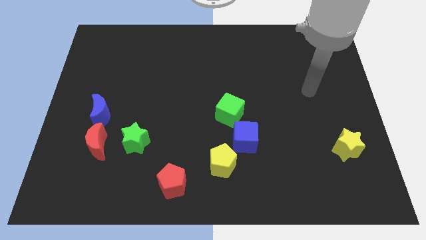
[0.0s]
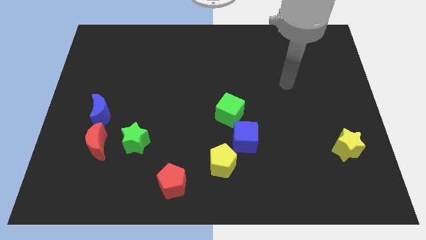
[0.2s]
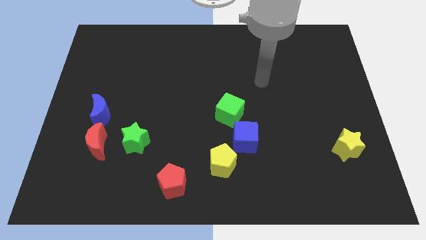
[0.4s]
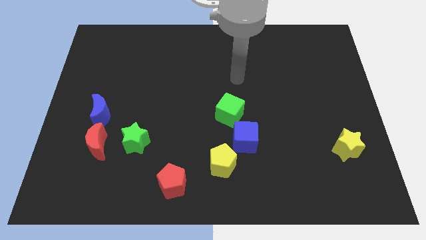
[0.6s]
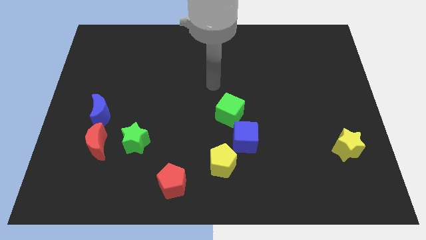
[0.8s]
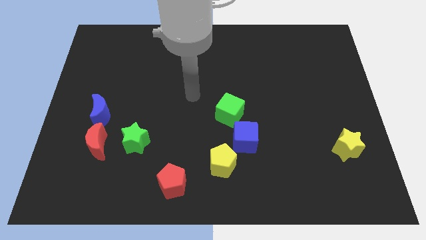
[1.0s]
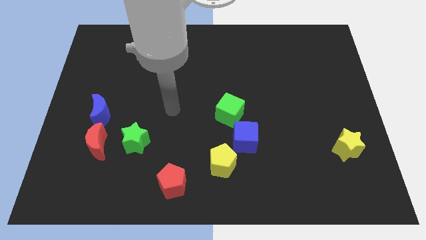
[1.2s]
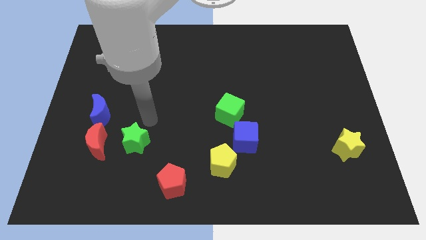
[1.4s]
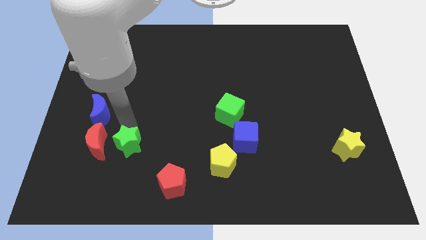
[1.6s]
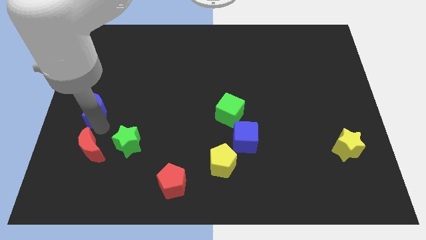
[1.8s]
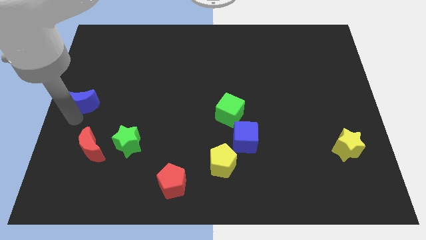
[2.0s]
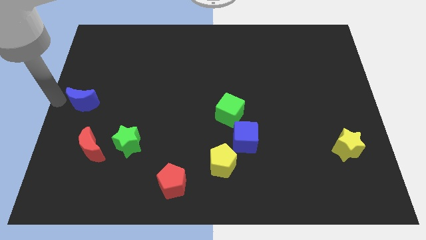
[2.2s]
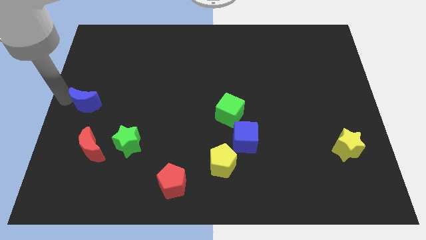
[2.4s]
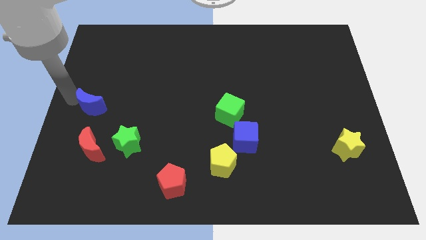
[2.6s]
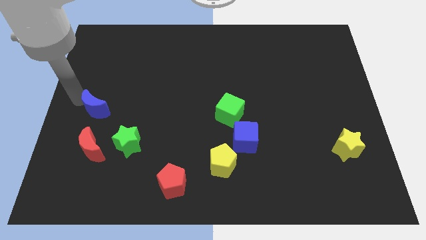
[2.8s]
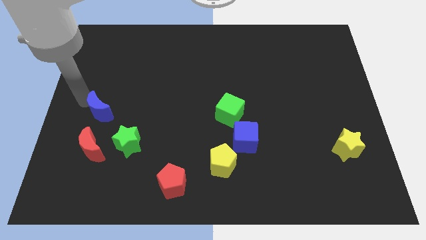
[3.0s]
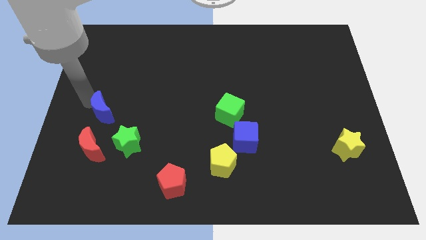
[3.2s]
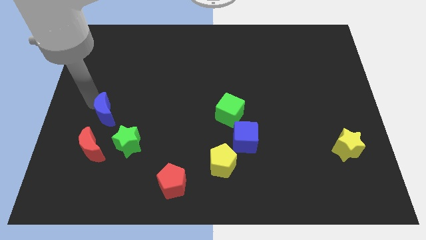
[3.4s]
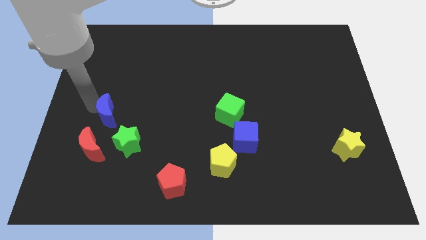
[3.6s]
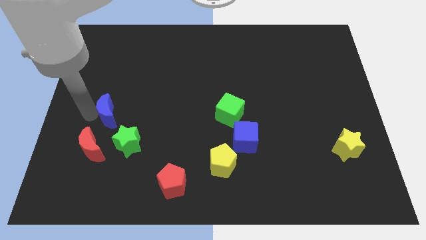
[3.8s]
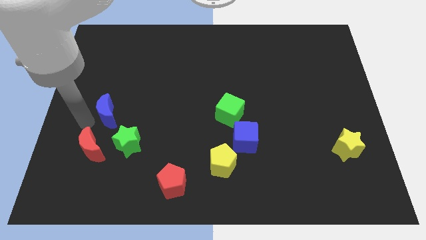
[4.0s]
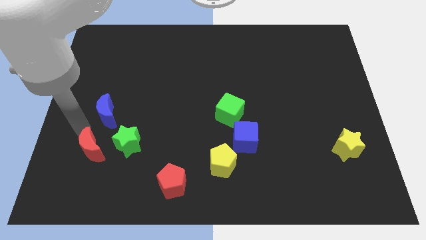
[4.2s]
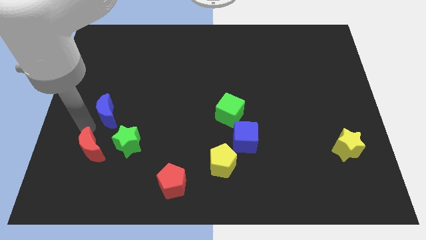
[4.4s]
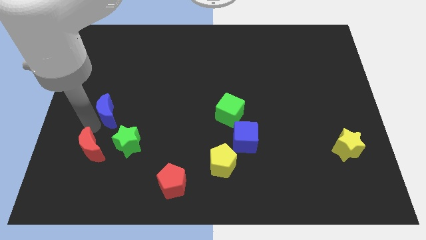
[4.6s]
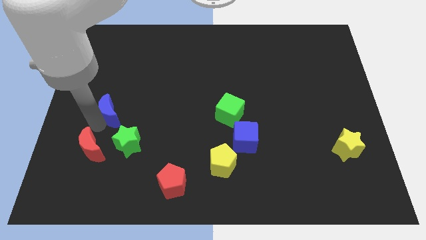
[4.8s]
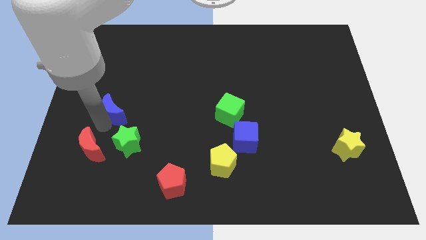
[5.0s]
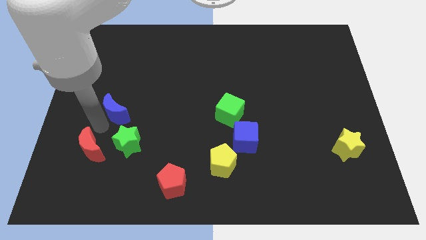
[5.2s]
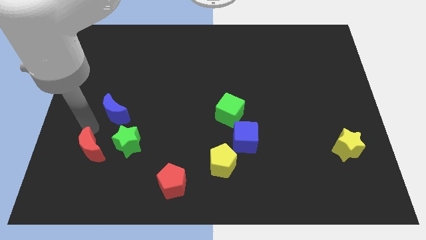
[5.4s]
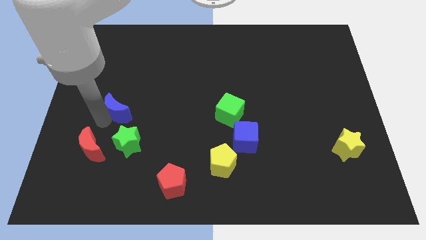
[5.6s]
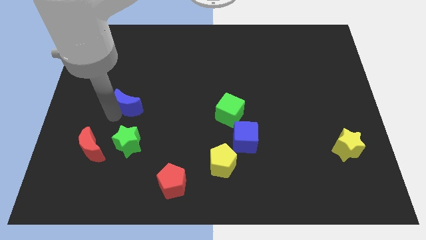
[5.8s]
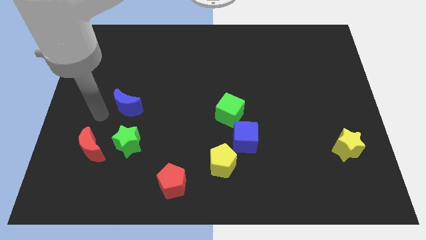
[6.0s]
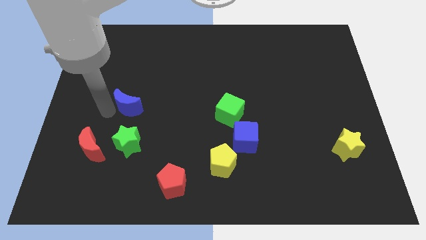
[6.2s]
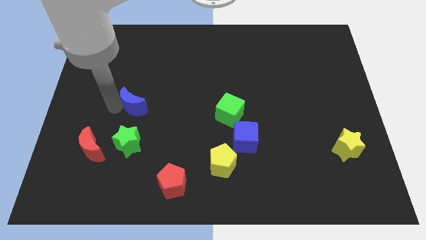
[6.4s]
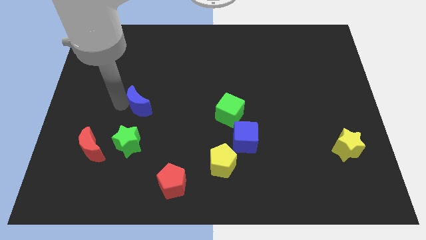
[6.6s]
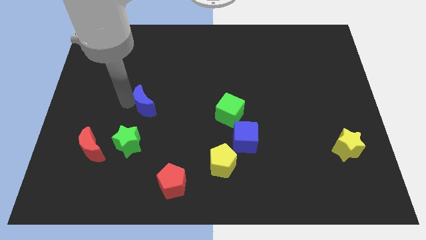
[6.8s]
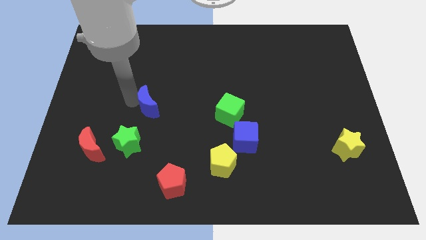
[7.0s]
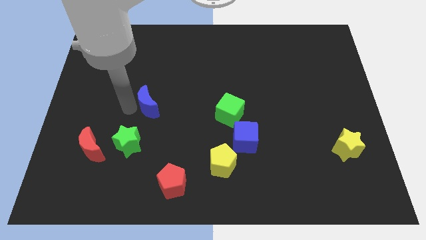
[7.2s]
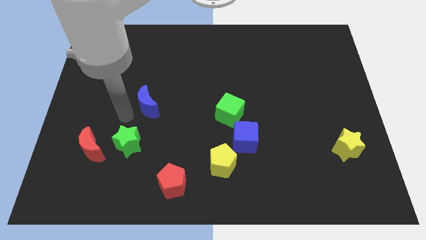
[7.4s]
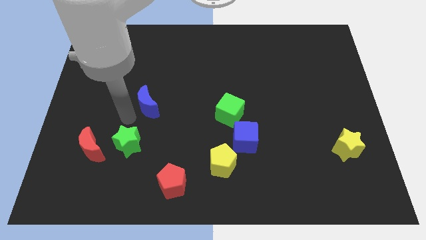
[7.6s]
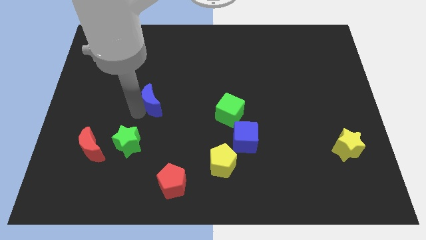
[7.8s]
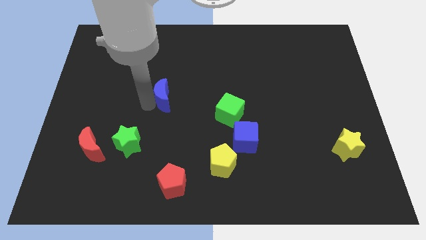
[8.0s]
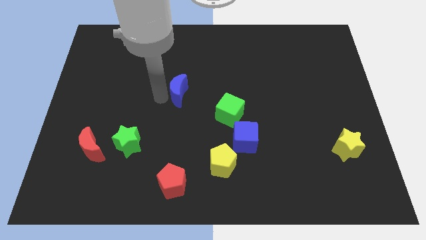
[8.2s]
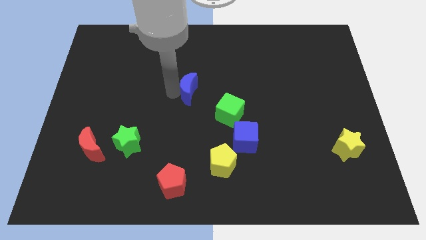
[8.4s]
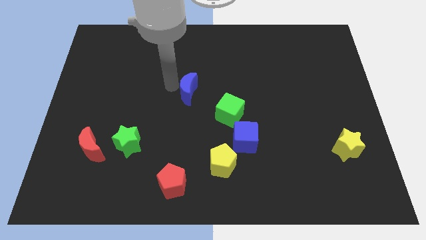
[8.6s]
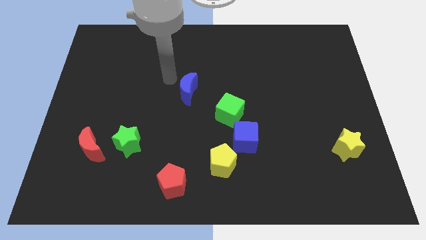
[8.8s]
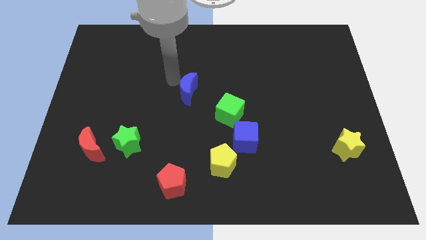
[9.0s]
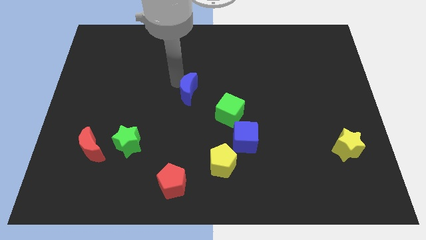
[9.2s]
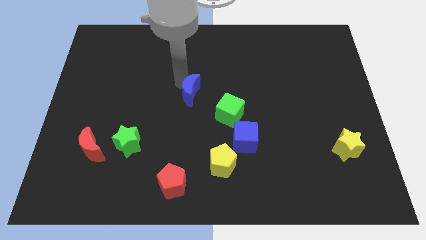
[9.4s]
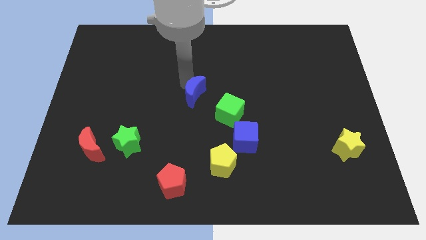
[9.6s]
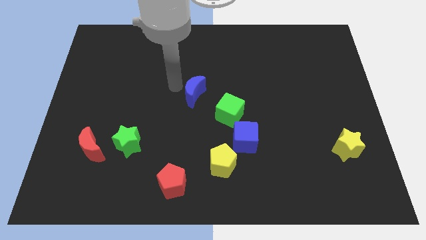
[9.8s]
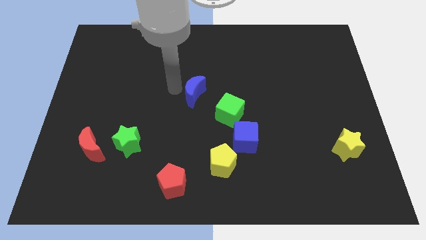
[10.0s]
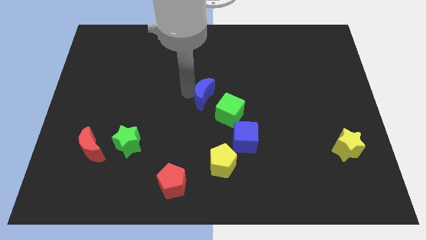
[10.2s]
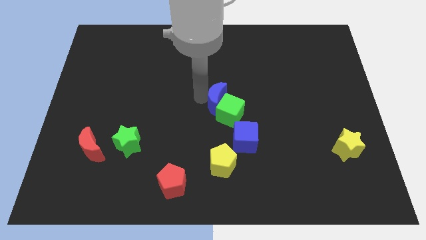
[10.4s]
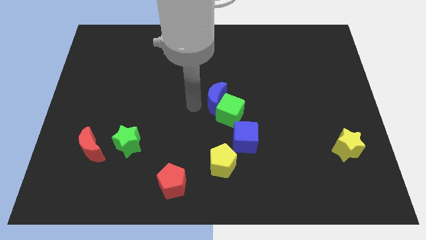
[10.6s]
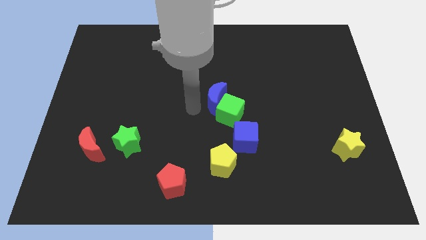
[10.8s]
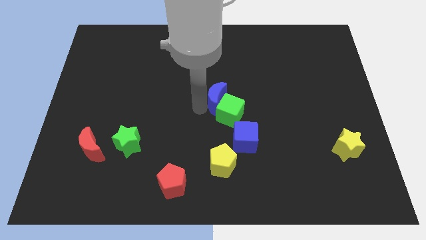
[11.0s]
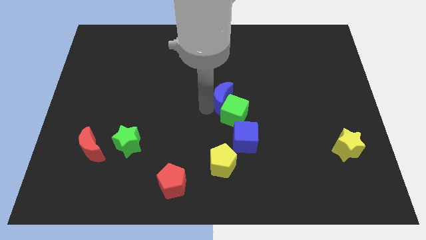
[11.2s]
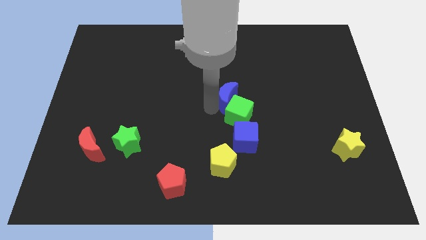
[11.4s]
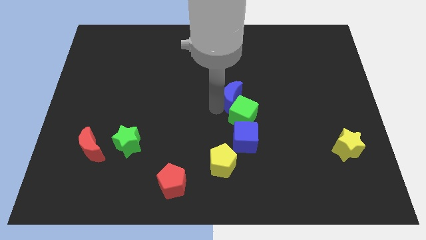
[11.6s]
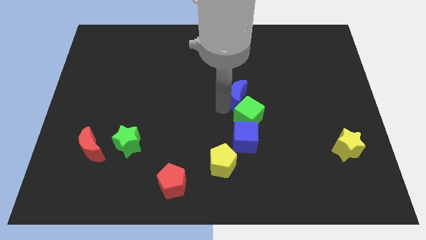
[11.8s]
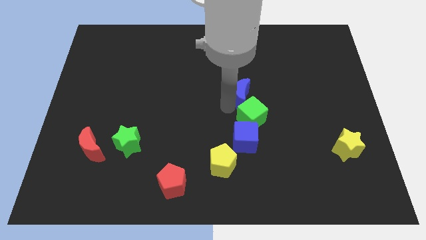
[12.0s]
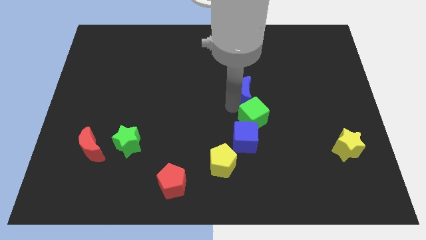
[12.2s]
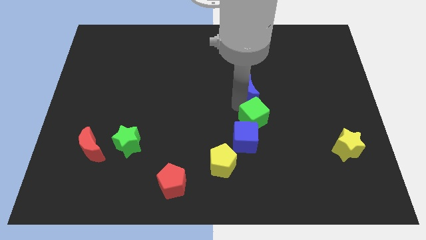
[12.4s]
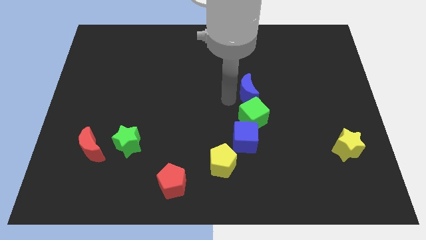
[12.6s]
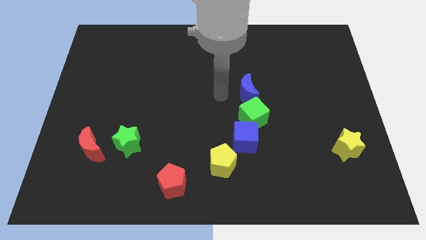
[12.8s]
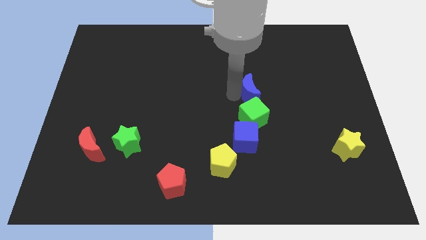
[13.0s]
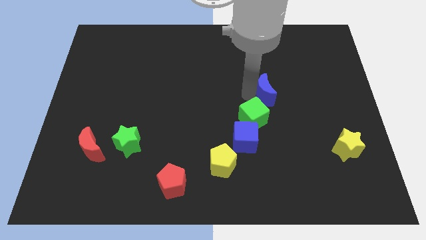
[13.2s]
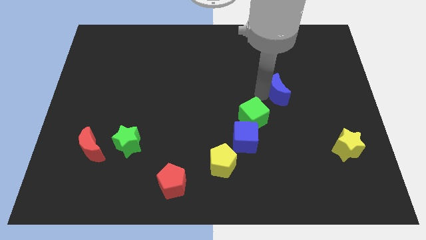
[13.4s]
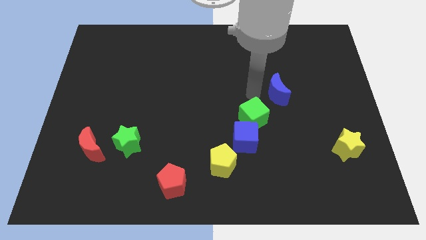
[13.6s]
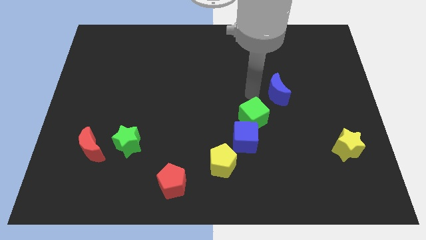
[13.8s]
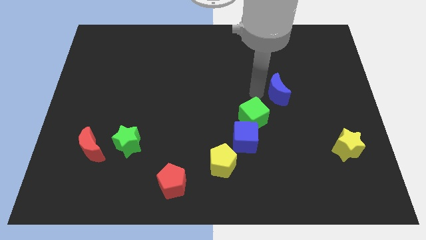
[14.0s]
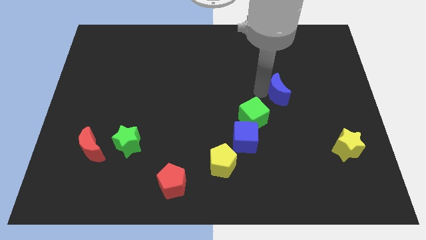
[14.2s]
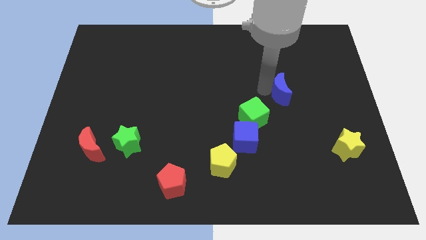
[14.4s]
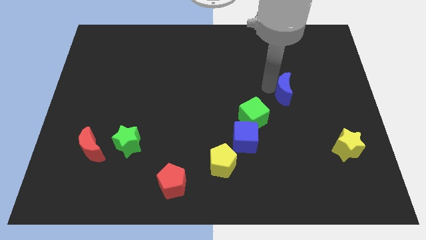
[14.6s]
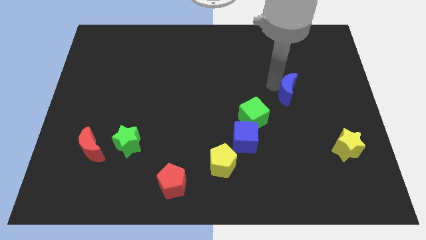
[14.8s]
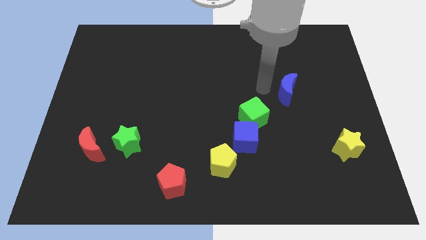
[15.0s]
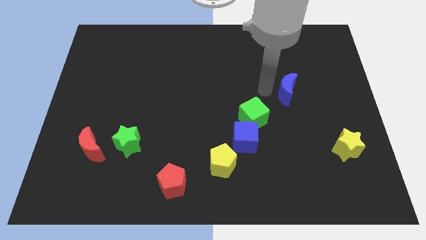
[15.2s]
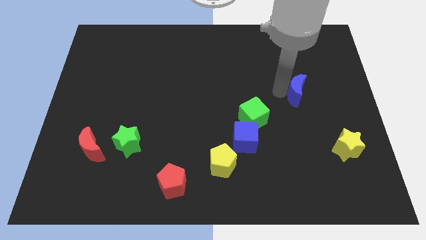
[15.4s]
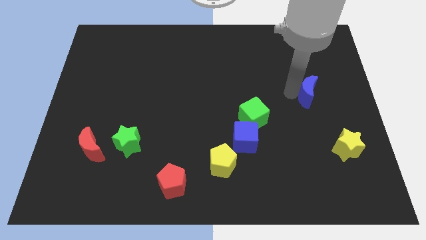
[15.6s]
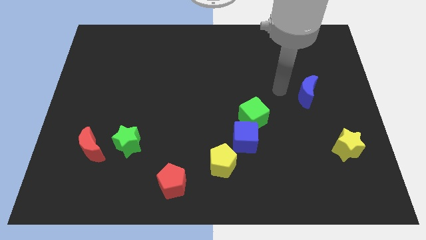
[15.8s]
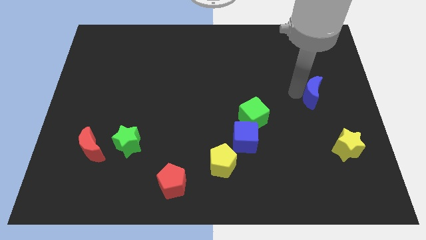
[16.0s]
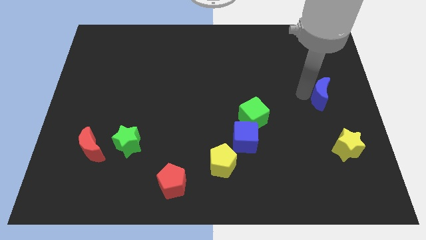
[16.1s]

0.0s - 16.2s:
push the blue moon to the center right
